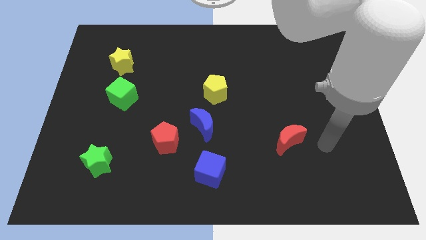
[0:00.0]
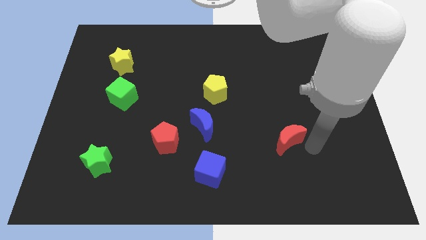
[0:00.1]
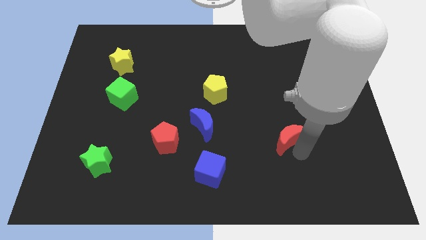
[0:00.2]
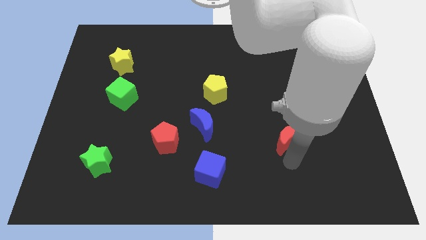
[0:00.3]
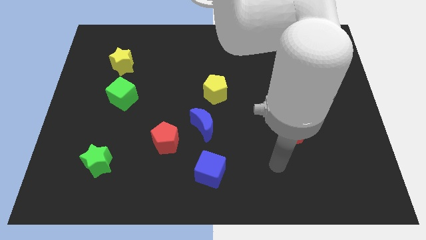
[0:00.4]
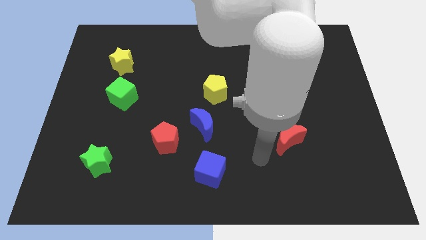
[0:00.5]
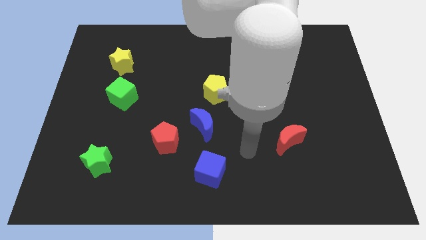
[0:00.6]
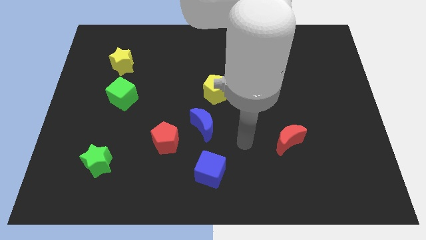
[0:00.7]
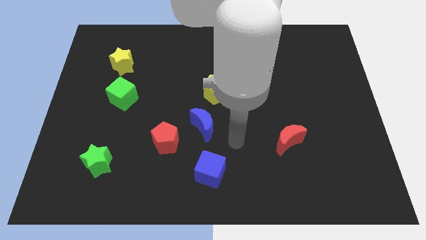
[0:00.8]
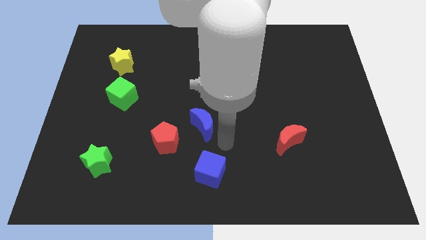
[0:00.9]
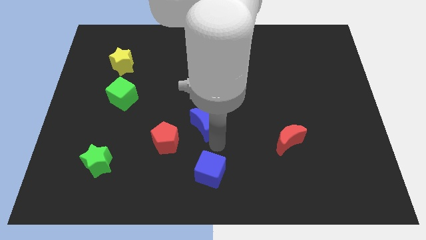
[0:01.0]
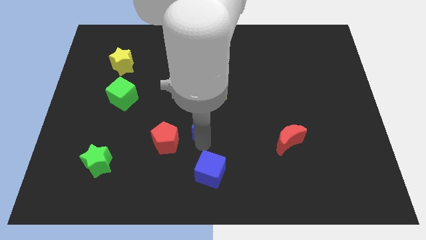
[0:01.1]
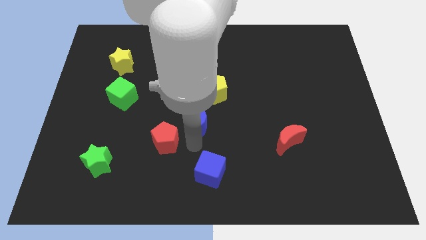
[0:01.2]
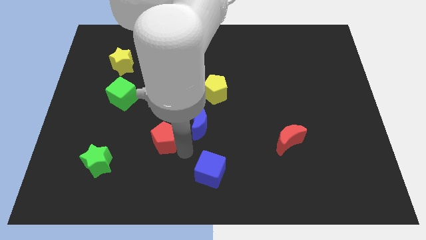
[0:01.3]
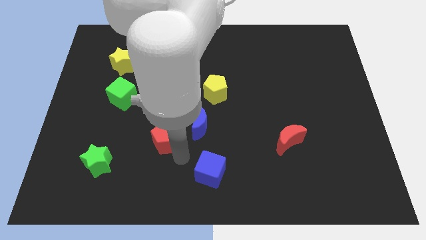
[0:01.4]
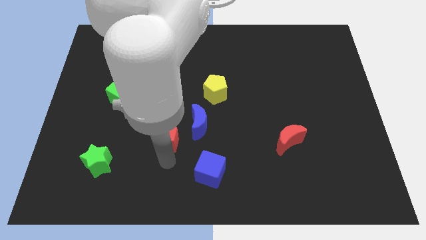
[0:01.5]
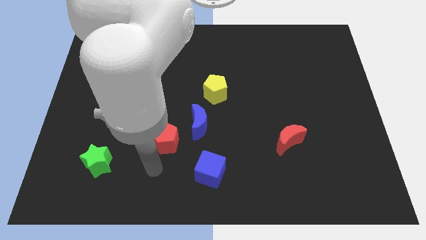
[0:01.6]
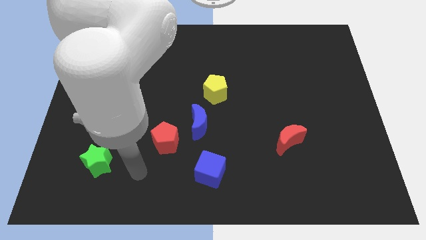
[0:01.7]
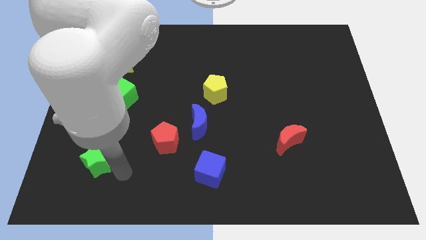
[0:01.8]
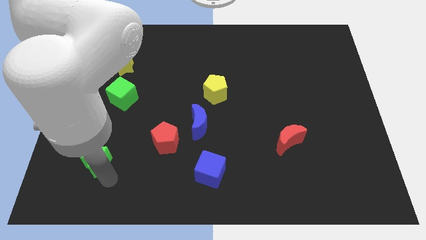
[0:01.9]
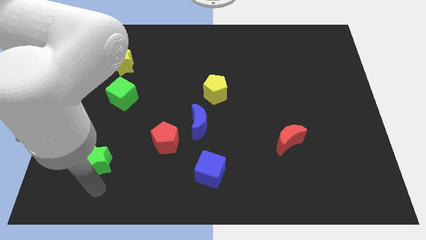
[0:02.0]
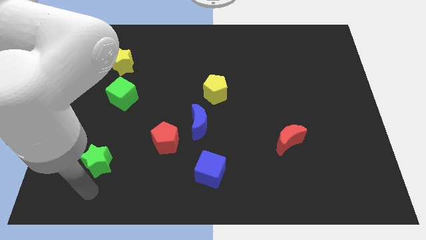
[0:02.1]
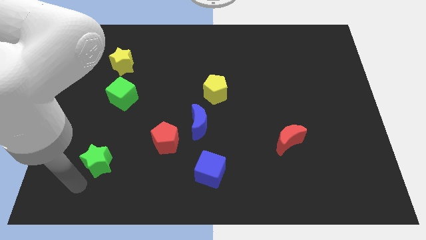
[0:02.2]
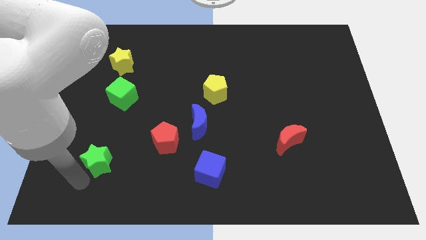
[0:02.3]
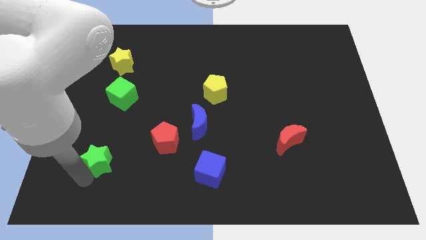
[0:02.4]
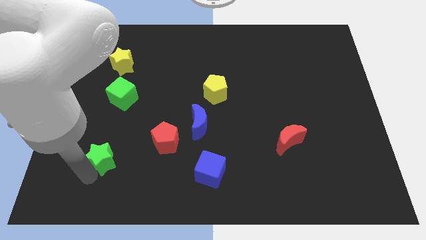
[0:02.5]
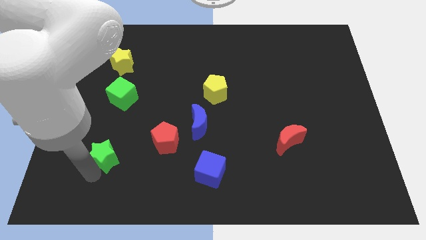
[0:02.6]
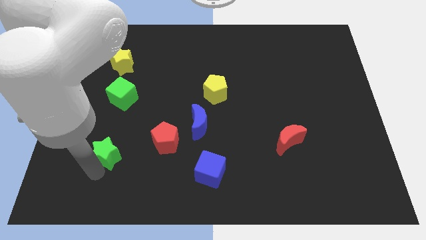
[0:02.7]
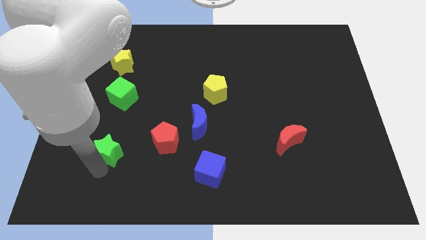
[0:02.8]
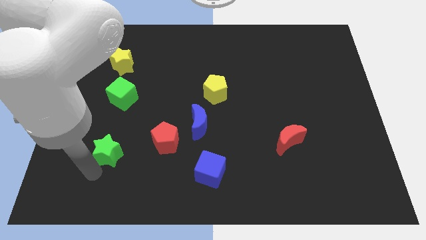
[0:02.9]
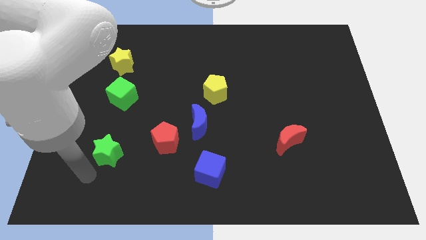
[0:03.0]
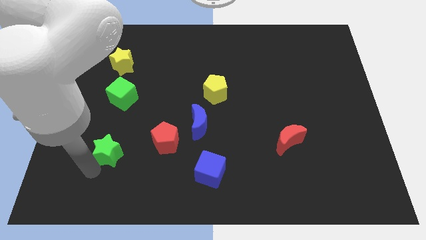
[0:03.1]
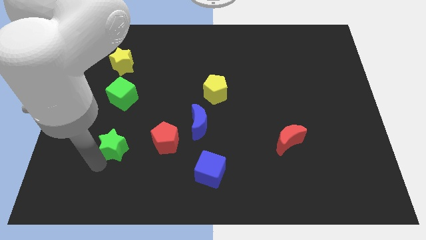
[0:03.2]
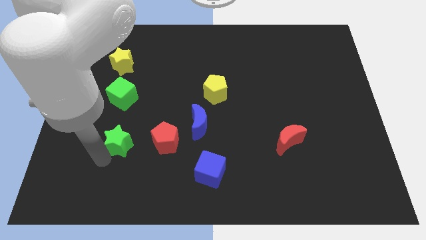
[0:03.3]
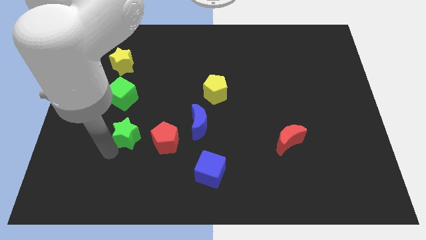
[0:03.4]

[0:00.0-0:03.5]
move the green star up and then right a little

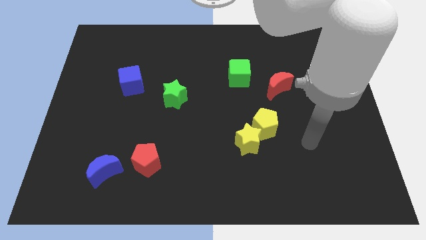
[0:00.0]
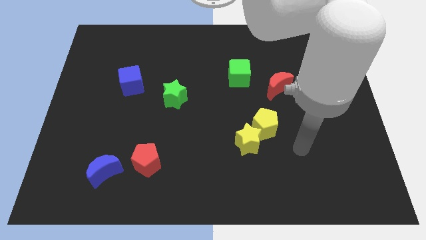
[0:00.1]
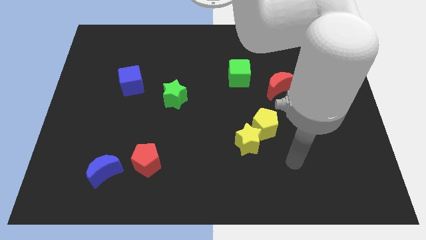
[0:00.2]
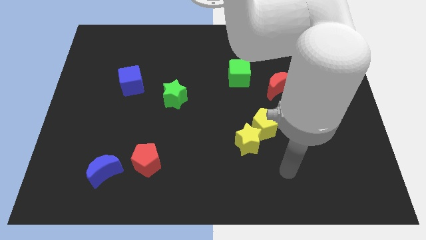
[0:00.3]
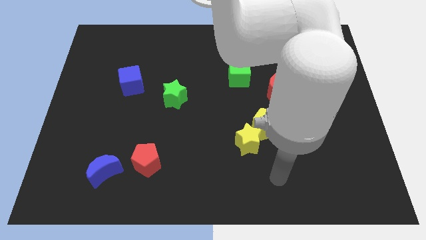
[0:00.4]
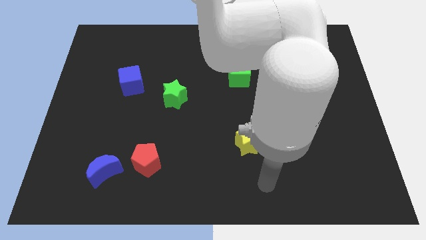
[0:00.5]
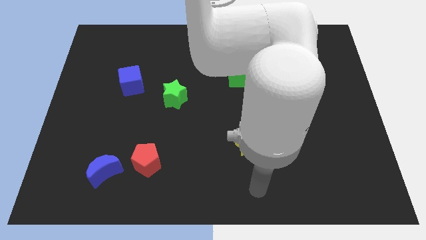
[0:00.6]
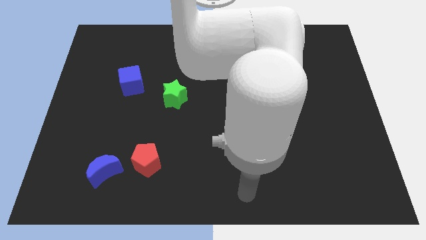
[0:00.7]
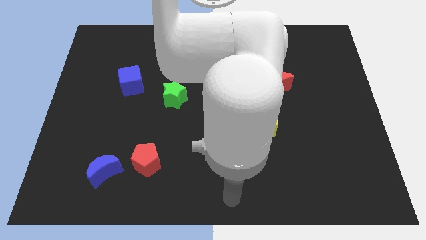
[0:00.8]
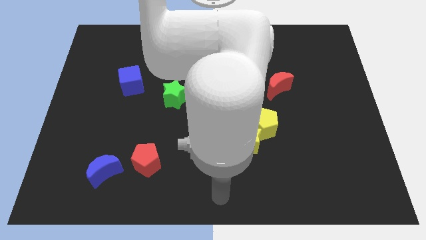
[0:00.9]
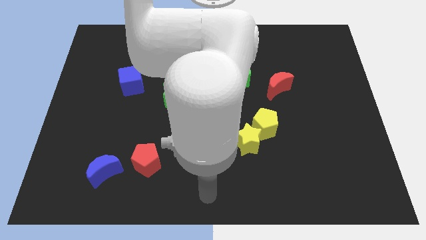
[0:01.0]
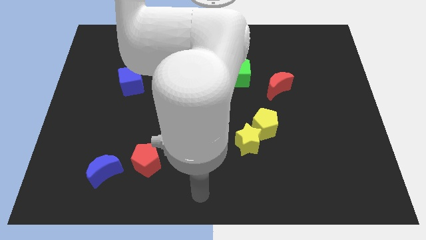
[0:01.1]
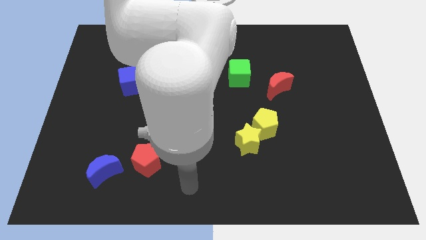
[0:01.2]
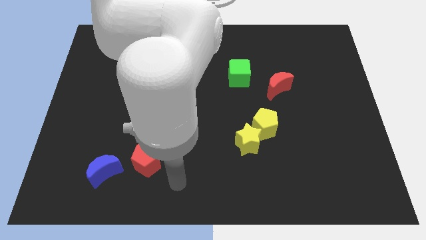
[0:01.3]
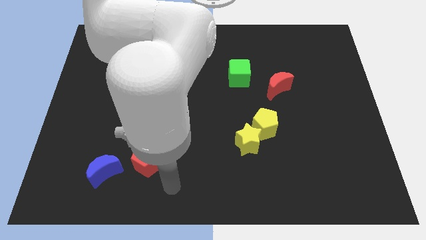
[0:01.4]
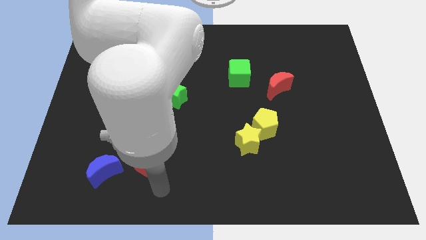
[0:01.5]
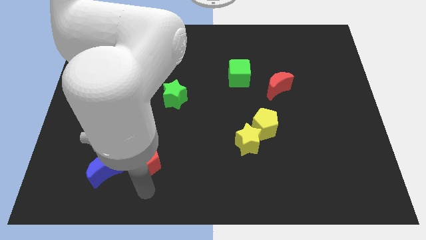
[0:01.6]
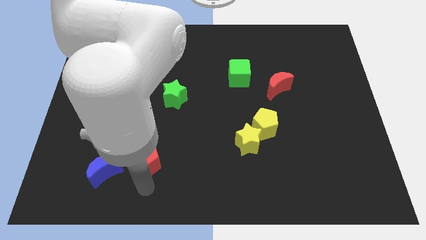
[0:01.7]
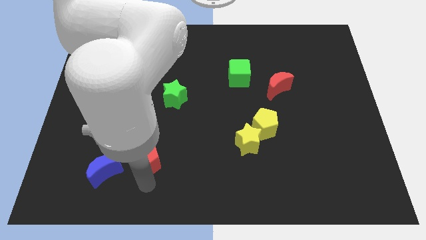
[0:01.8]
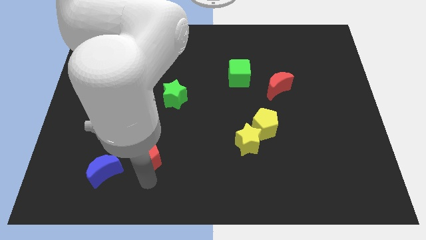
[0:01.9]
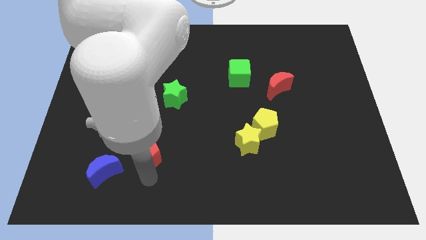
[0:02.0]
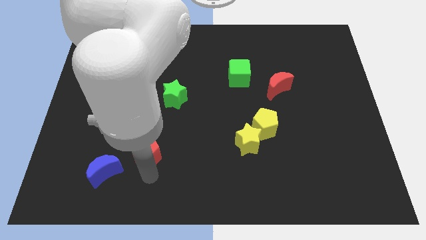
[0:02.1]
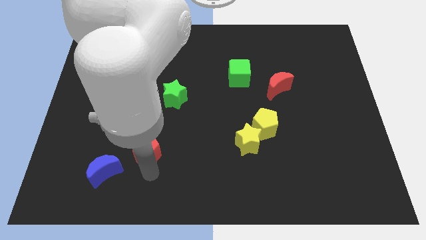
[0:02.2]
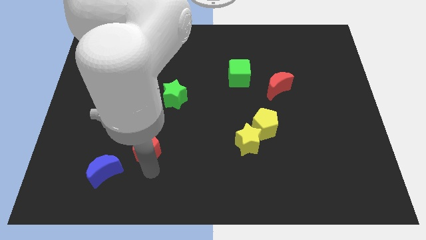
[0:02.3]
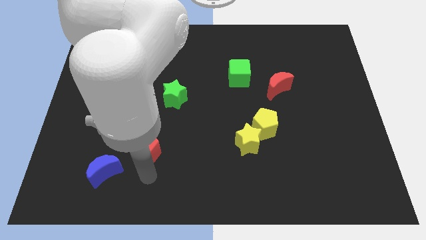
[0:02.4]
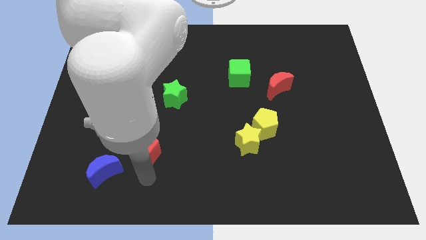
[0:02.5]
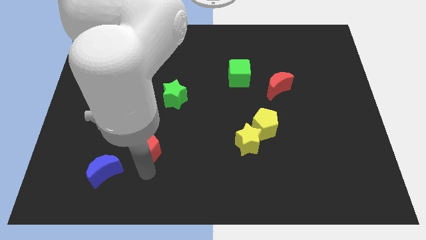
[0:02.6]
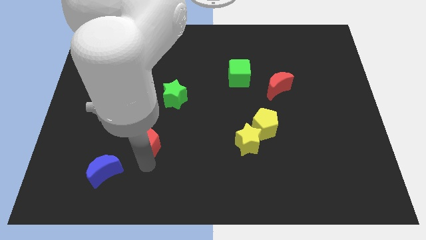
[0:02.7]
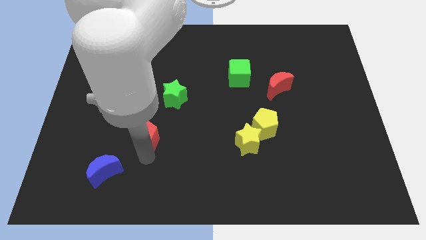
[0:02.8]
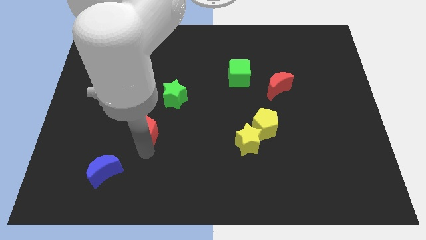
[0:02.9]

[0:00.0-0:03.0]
slightly push the red pentagon up

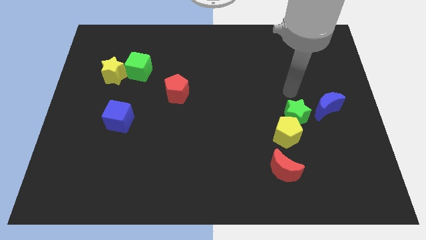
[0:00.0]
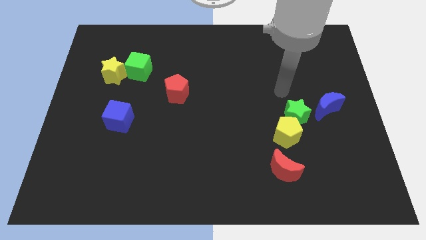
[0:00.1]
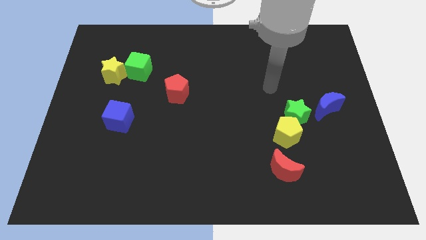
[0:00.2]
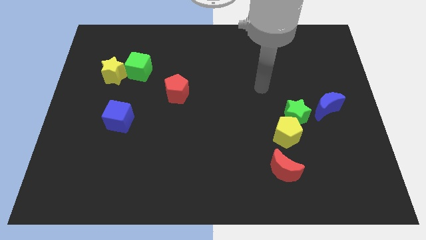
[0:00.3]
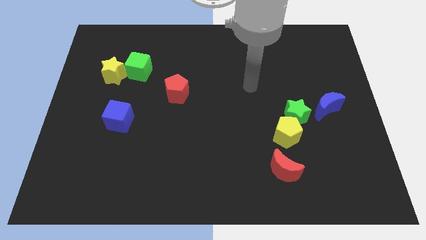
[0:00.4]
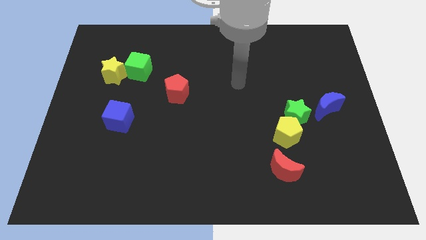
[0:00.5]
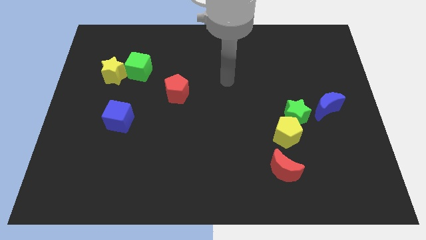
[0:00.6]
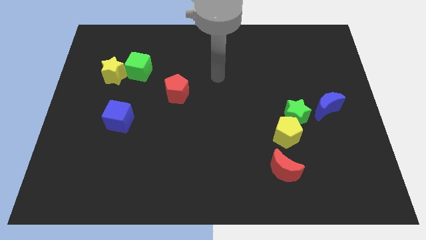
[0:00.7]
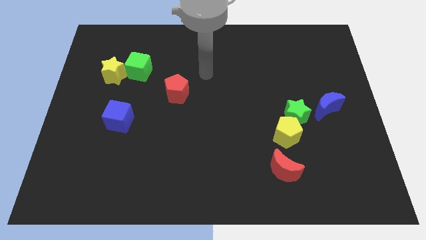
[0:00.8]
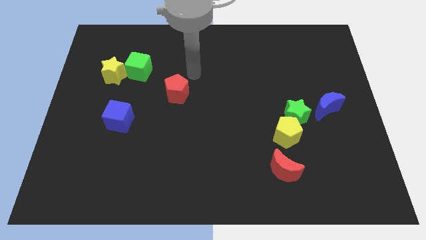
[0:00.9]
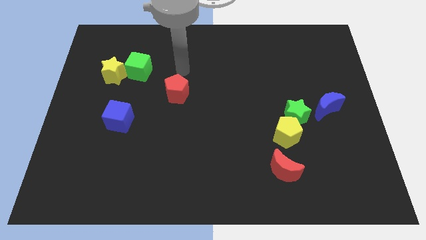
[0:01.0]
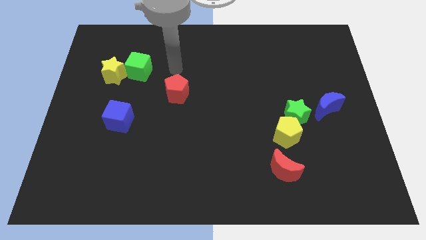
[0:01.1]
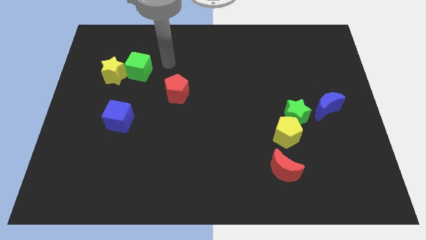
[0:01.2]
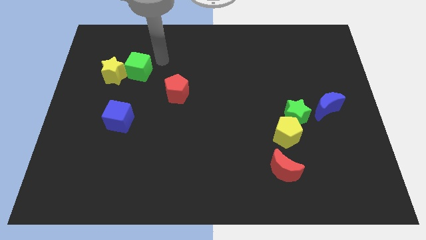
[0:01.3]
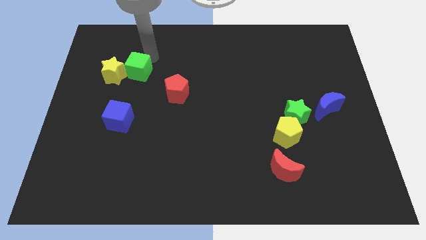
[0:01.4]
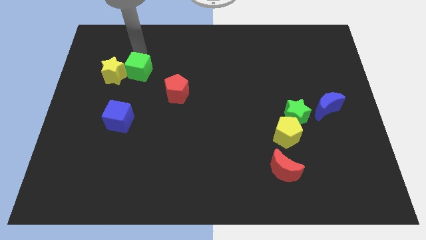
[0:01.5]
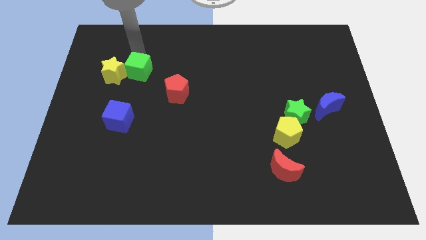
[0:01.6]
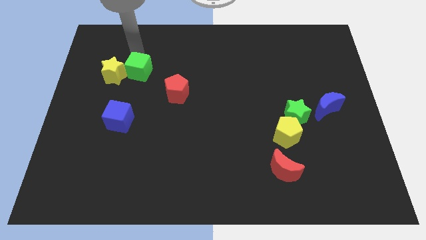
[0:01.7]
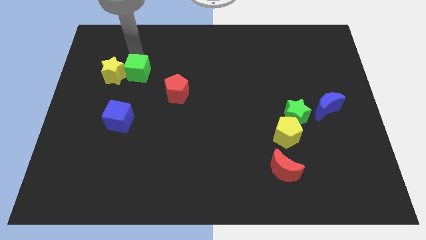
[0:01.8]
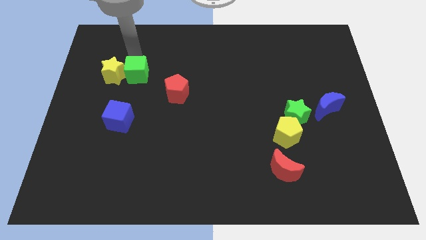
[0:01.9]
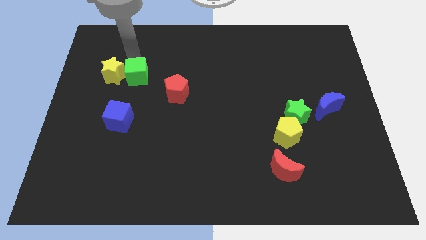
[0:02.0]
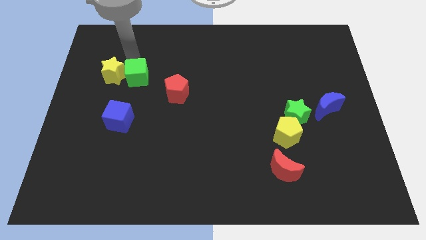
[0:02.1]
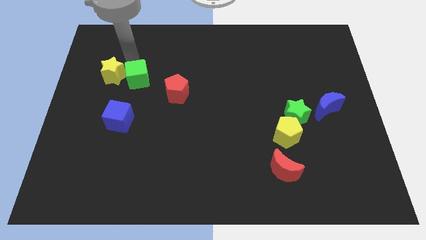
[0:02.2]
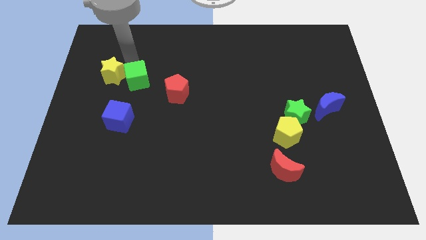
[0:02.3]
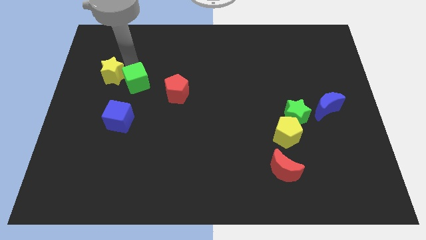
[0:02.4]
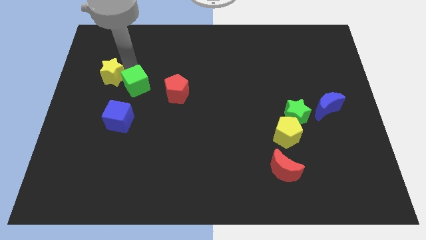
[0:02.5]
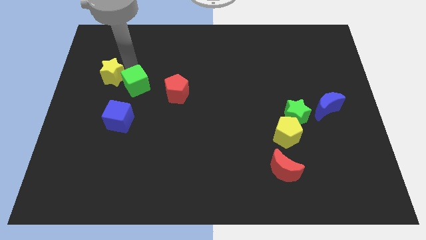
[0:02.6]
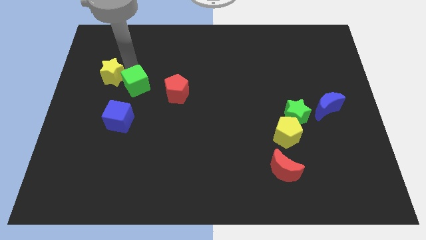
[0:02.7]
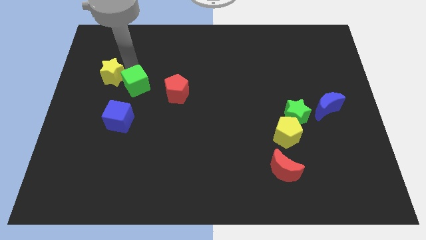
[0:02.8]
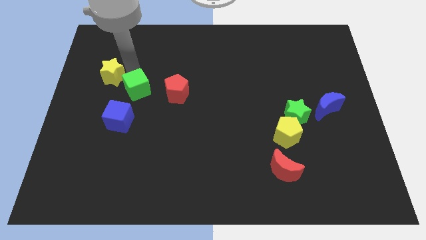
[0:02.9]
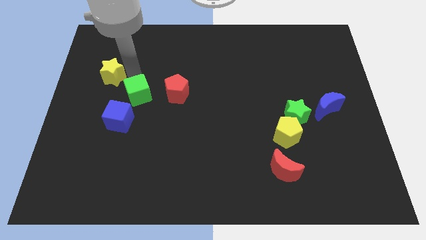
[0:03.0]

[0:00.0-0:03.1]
move the green cube a little bit down
